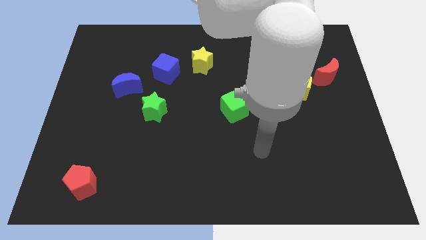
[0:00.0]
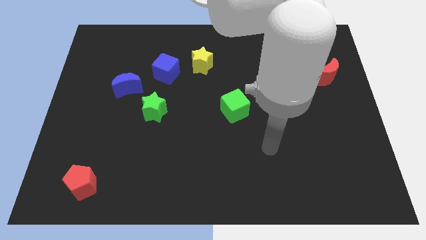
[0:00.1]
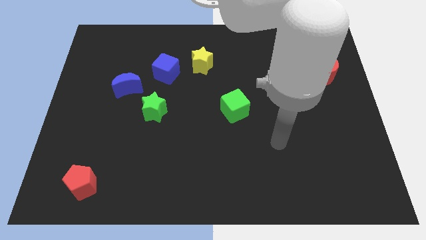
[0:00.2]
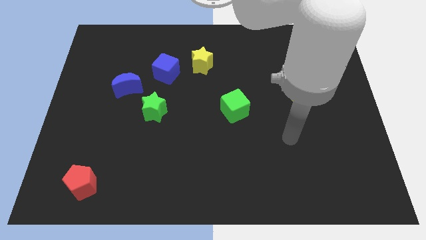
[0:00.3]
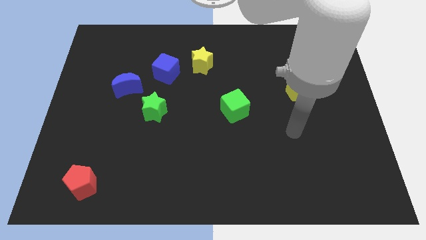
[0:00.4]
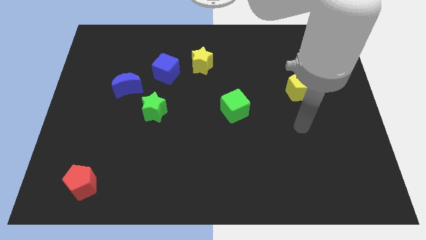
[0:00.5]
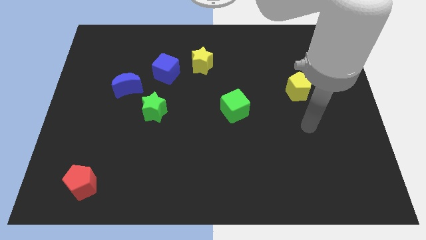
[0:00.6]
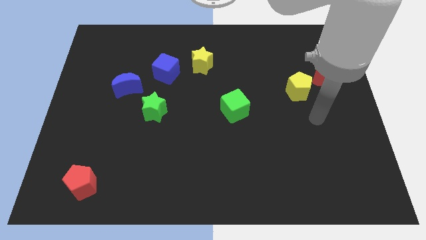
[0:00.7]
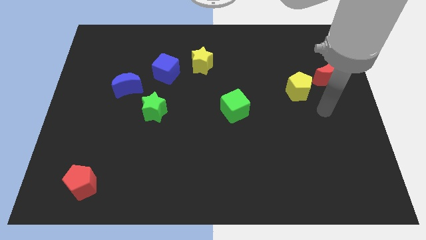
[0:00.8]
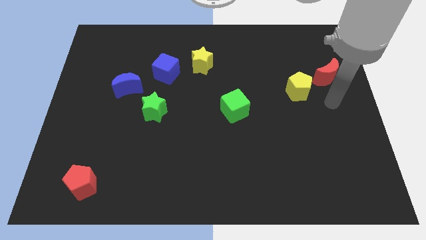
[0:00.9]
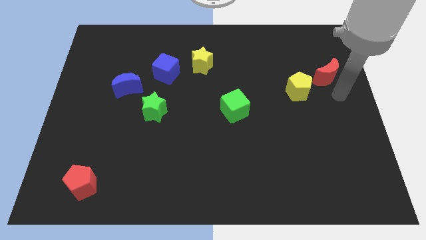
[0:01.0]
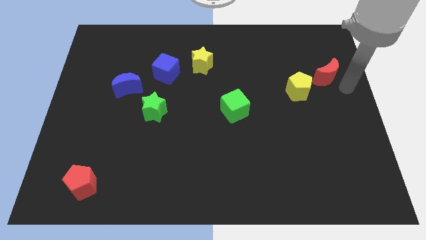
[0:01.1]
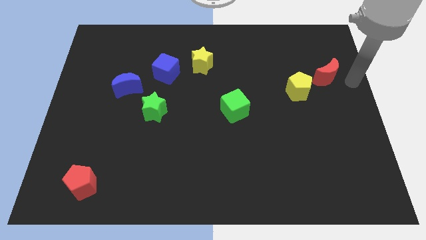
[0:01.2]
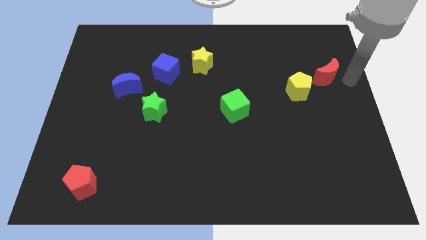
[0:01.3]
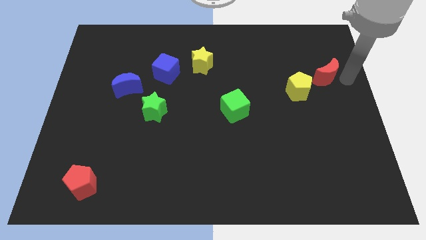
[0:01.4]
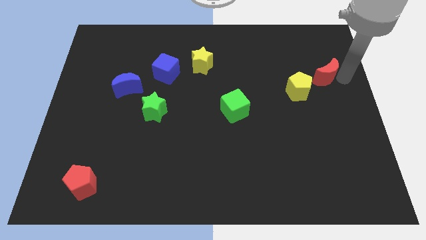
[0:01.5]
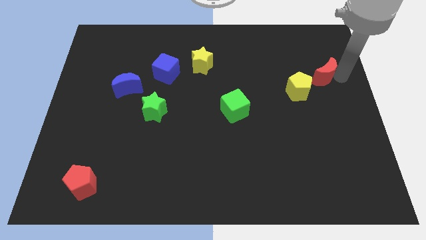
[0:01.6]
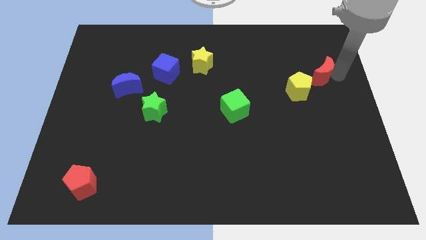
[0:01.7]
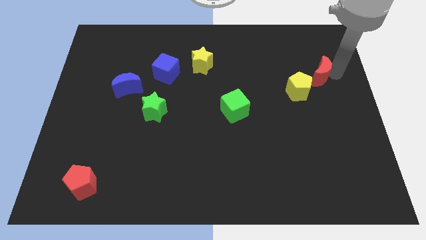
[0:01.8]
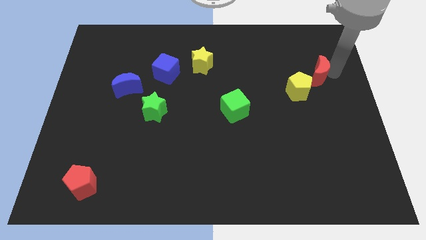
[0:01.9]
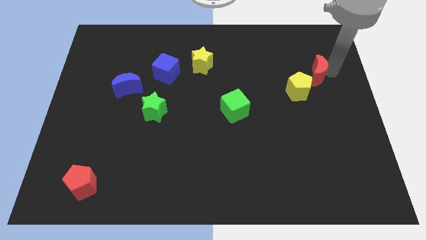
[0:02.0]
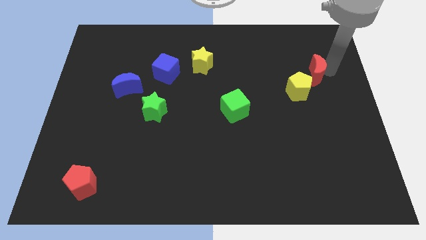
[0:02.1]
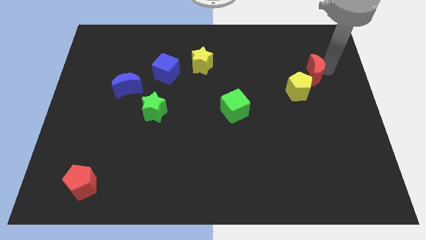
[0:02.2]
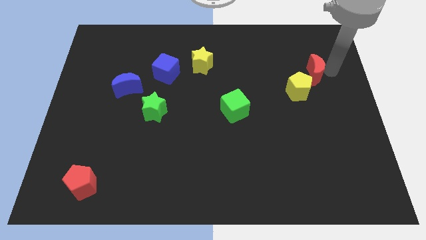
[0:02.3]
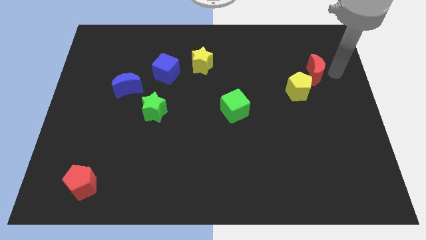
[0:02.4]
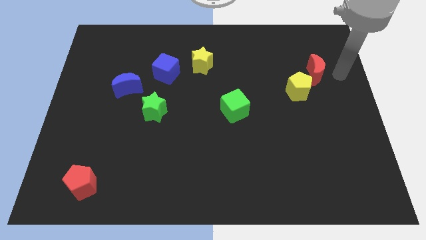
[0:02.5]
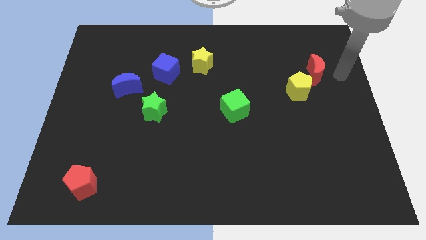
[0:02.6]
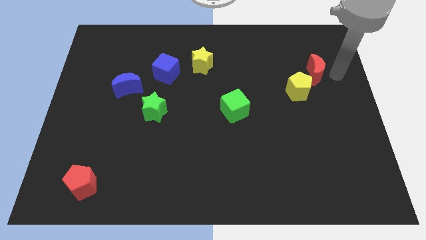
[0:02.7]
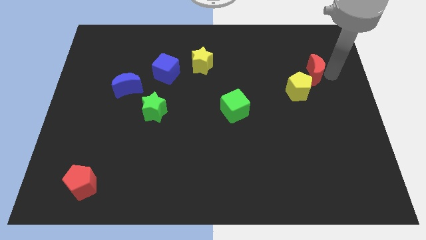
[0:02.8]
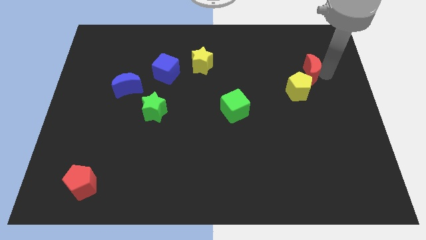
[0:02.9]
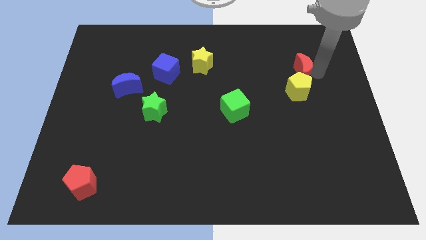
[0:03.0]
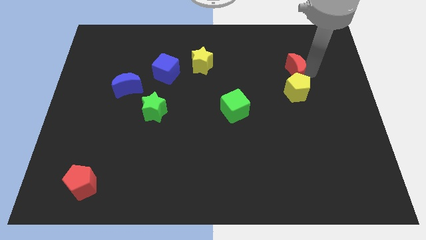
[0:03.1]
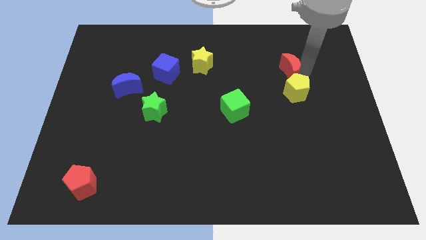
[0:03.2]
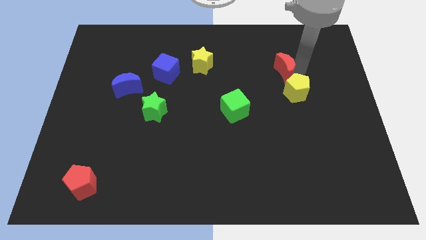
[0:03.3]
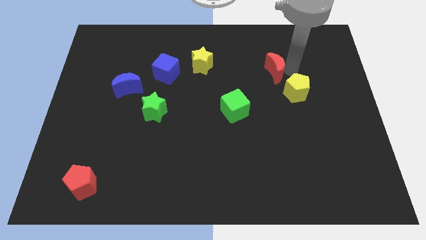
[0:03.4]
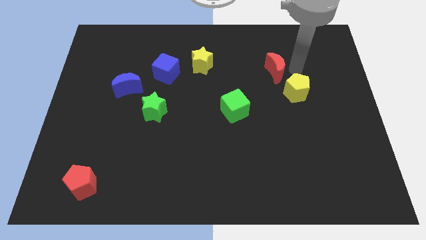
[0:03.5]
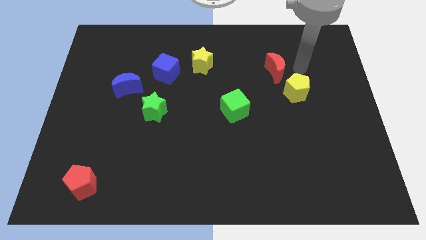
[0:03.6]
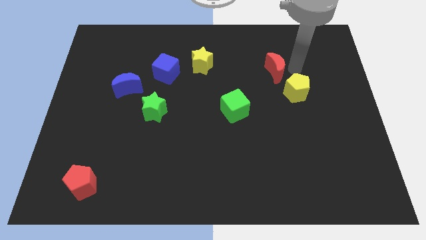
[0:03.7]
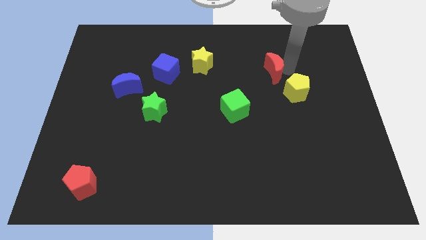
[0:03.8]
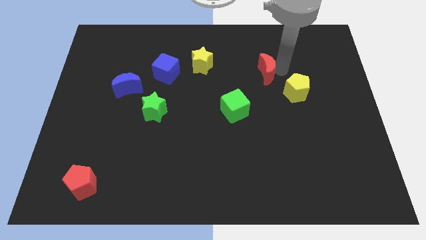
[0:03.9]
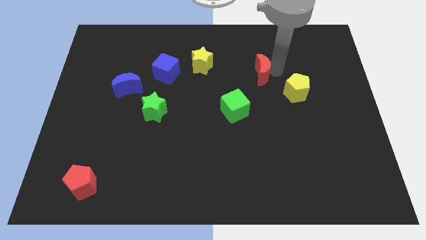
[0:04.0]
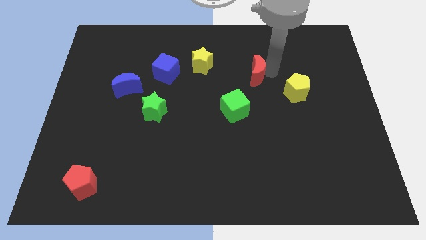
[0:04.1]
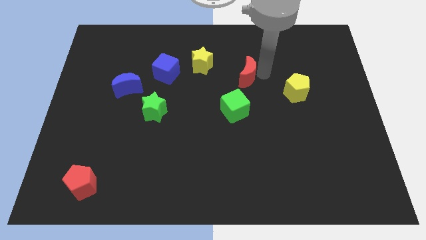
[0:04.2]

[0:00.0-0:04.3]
push the red moon to the left

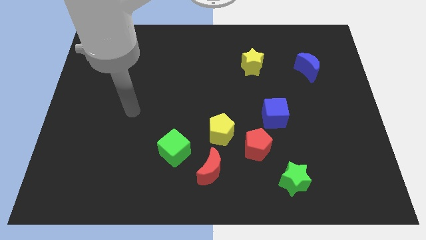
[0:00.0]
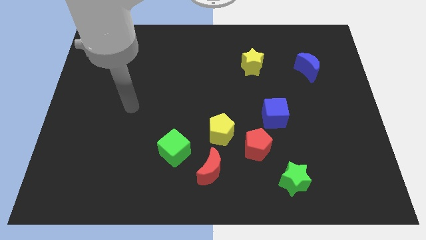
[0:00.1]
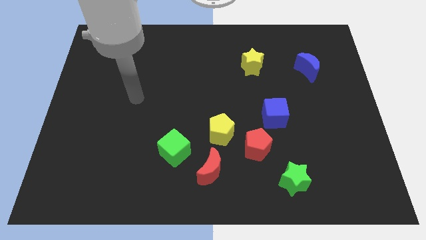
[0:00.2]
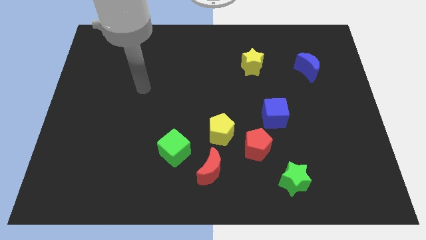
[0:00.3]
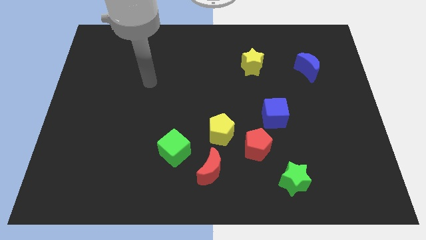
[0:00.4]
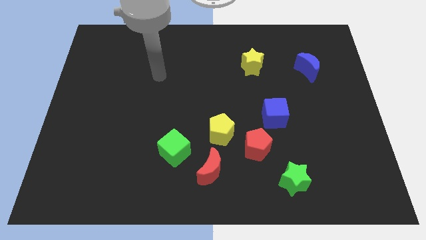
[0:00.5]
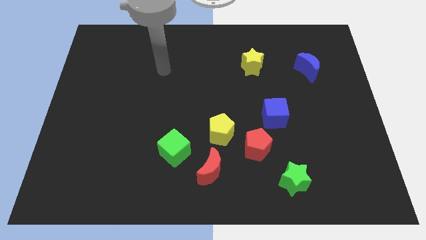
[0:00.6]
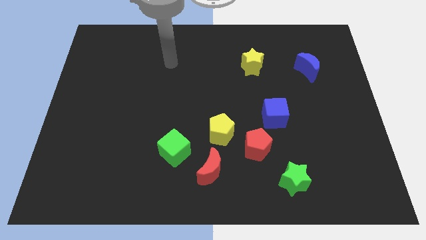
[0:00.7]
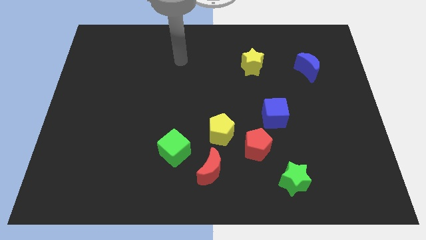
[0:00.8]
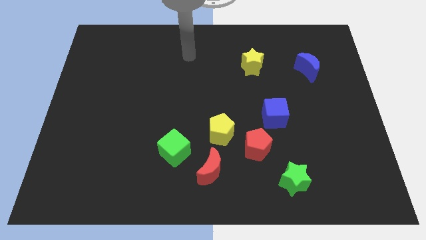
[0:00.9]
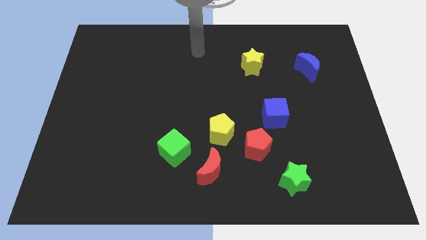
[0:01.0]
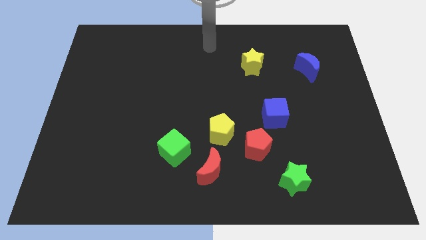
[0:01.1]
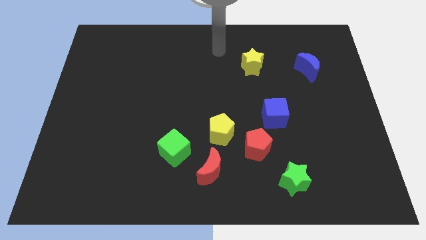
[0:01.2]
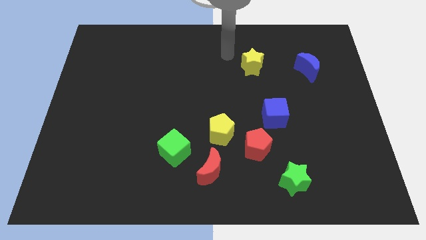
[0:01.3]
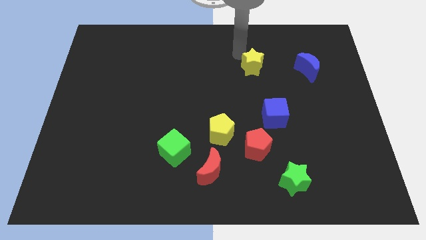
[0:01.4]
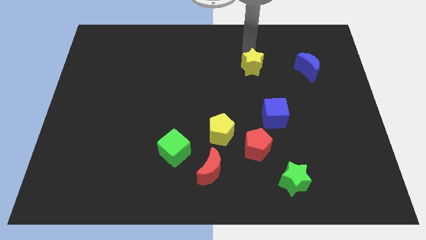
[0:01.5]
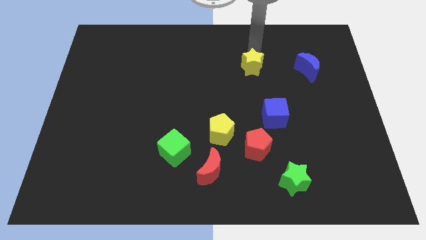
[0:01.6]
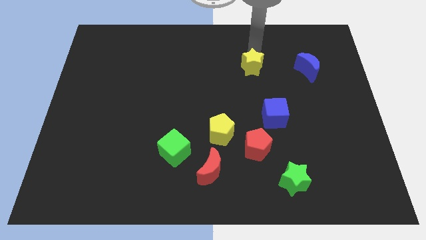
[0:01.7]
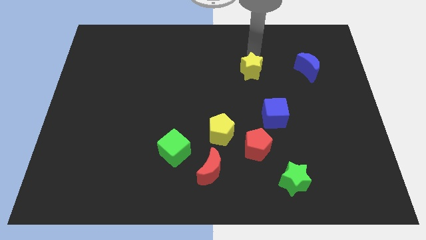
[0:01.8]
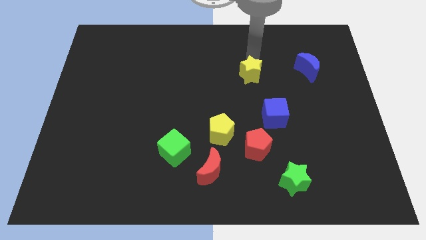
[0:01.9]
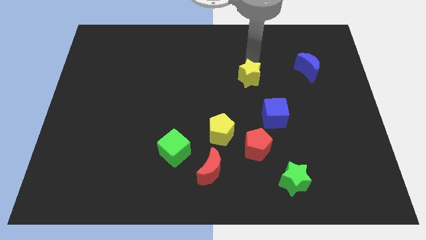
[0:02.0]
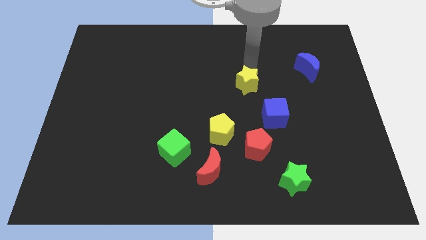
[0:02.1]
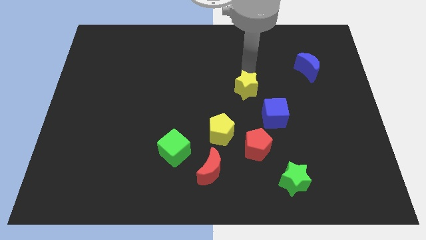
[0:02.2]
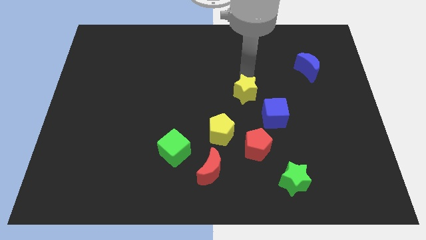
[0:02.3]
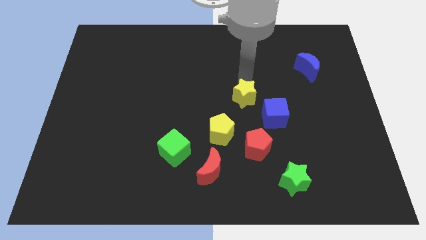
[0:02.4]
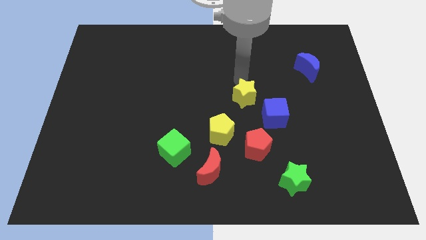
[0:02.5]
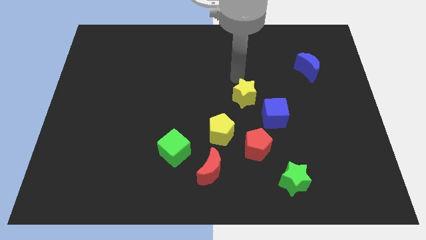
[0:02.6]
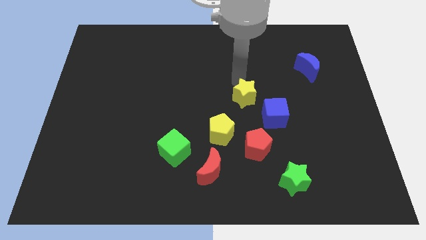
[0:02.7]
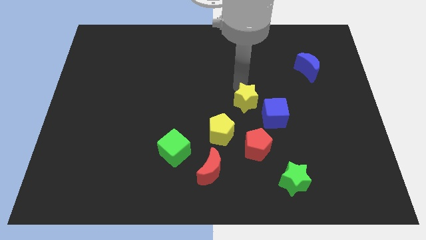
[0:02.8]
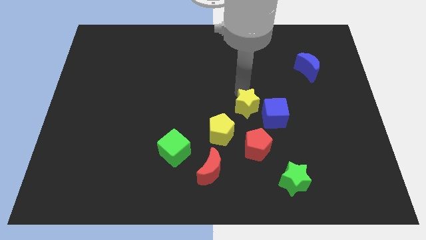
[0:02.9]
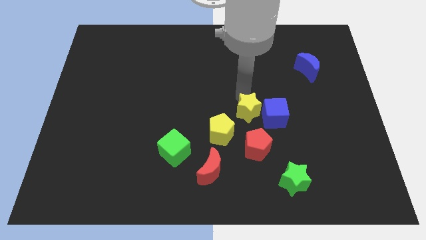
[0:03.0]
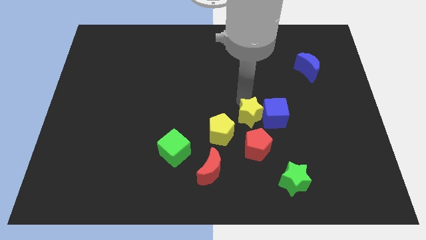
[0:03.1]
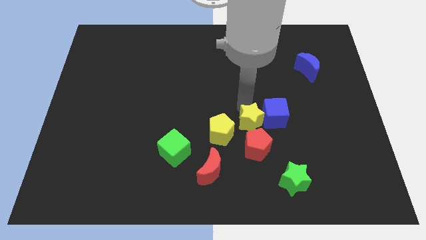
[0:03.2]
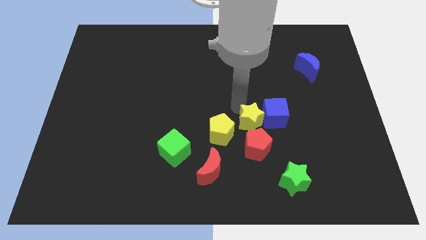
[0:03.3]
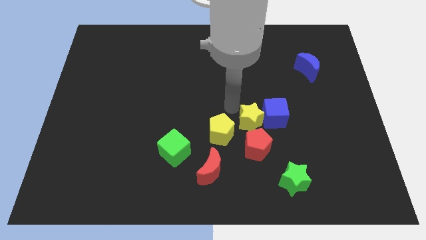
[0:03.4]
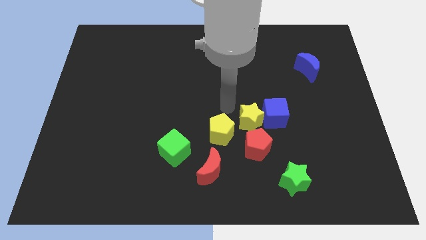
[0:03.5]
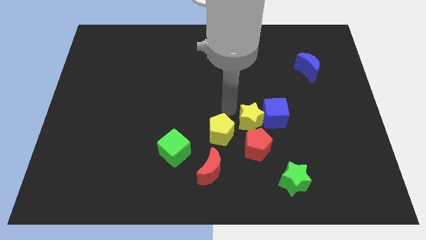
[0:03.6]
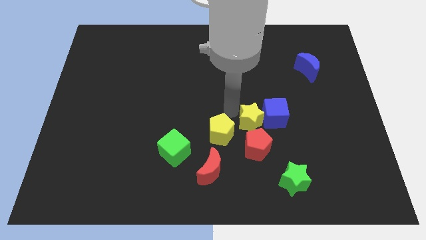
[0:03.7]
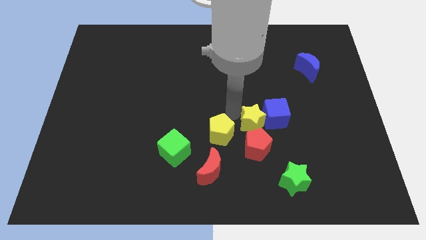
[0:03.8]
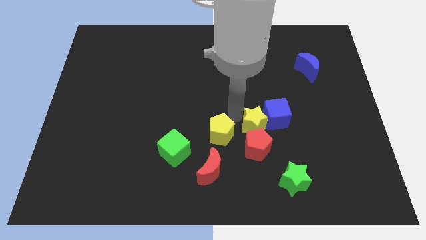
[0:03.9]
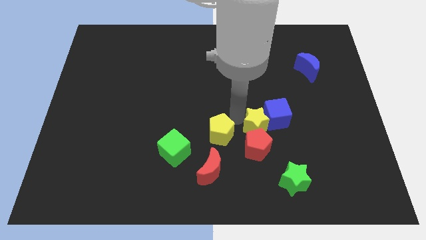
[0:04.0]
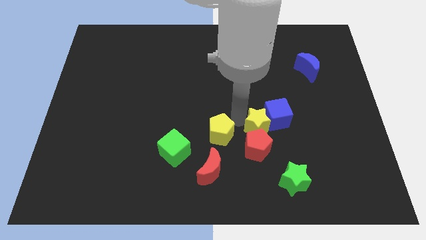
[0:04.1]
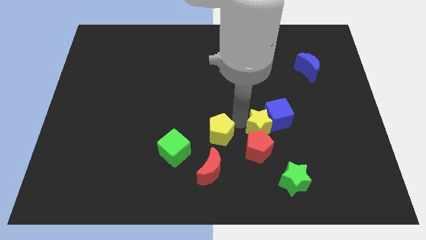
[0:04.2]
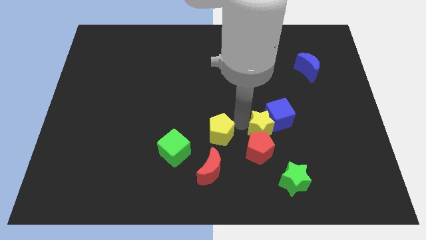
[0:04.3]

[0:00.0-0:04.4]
push the yellow star down
